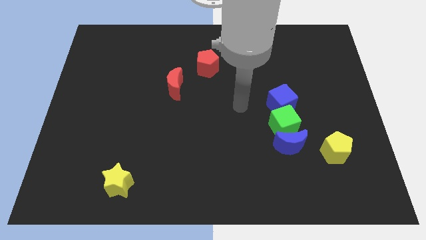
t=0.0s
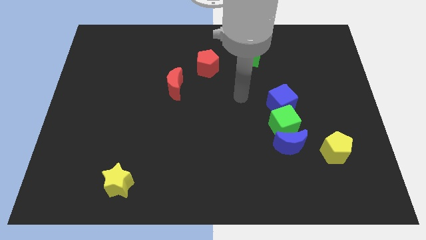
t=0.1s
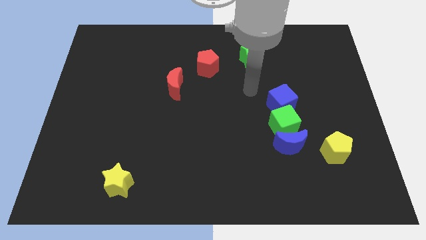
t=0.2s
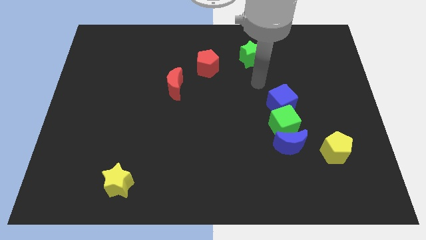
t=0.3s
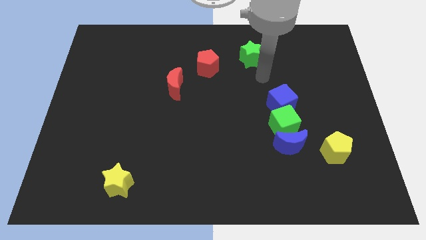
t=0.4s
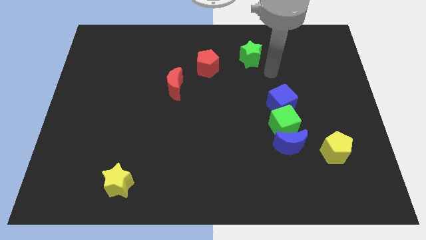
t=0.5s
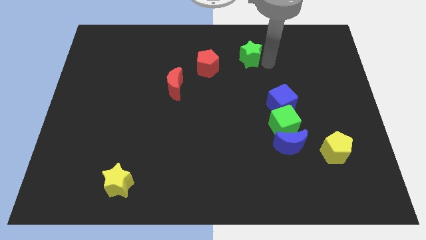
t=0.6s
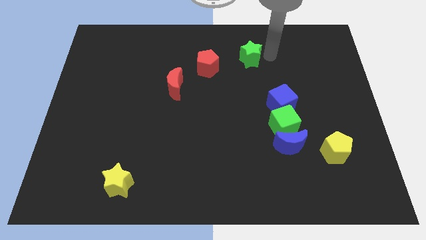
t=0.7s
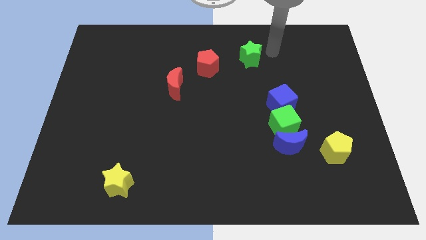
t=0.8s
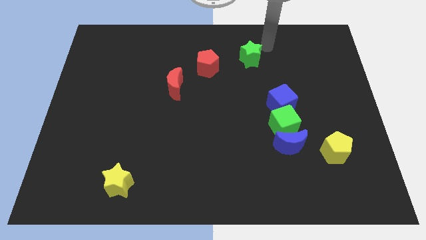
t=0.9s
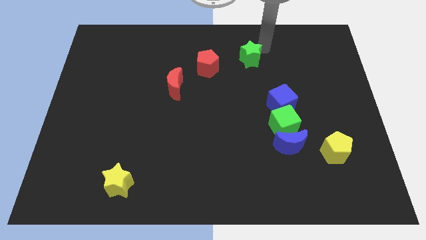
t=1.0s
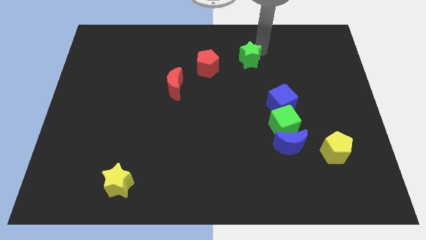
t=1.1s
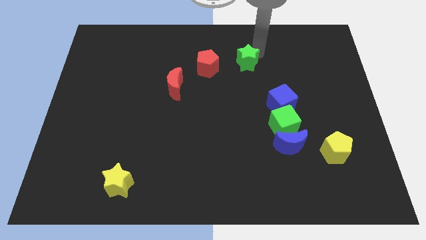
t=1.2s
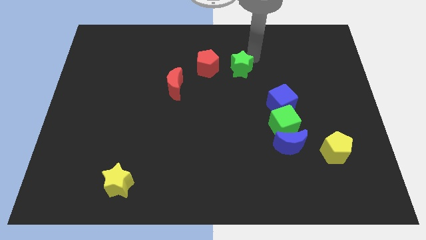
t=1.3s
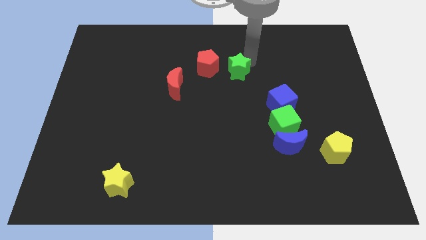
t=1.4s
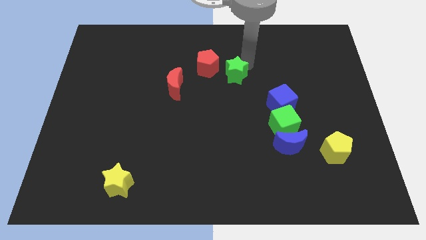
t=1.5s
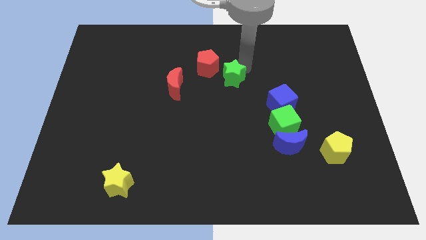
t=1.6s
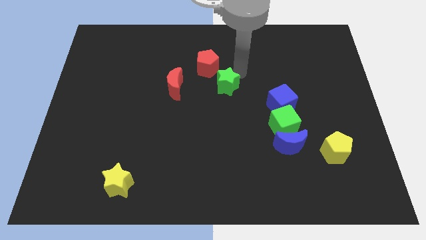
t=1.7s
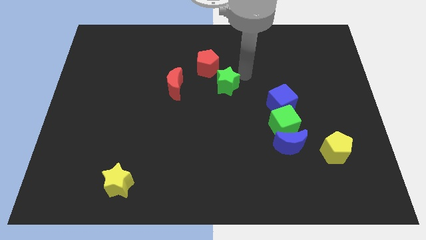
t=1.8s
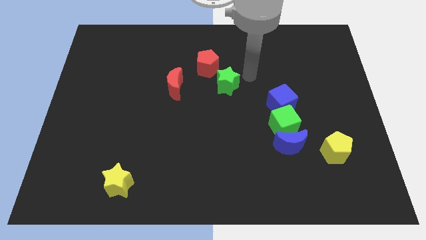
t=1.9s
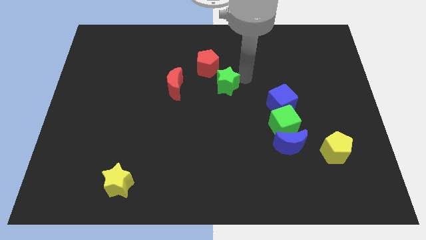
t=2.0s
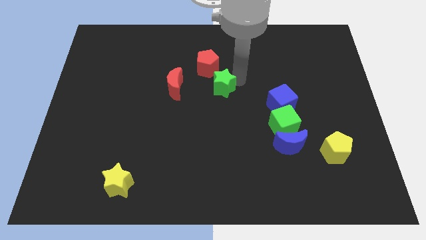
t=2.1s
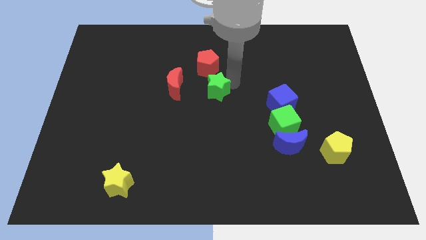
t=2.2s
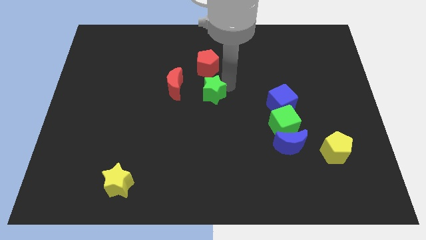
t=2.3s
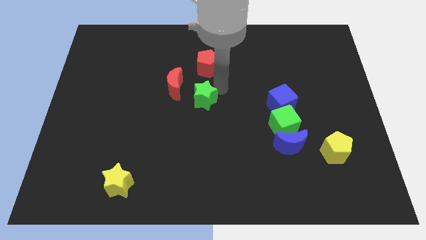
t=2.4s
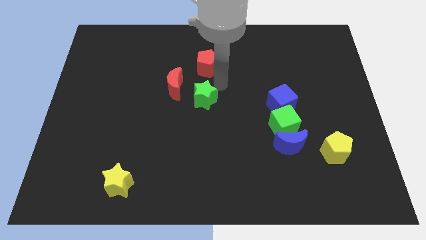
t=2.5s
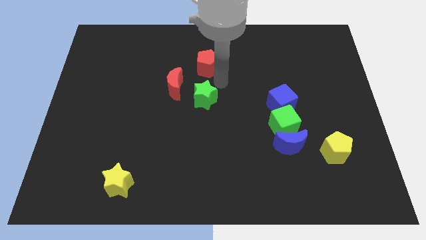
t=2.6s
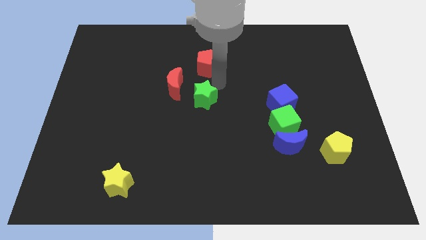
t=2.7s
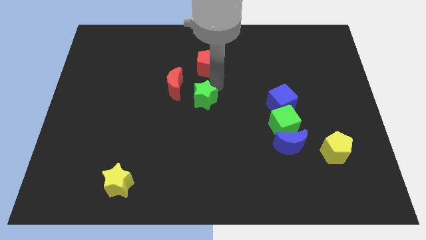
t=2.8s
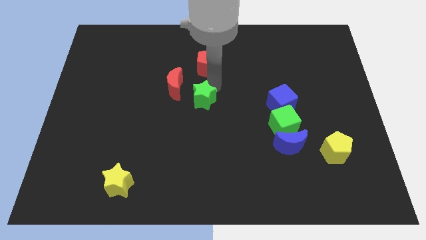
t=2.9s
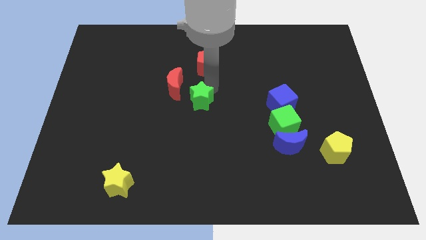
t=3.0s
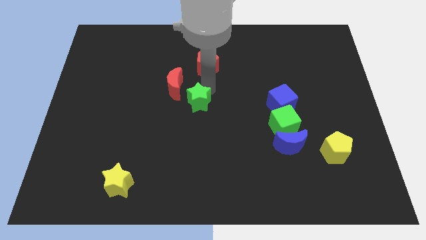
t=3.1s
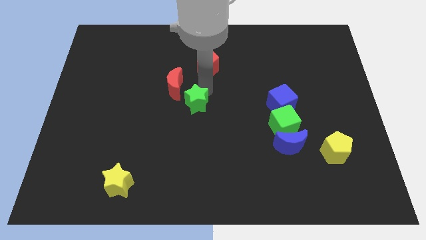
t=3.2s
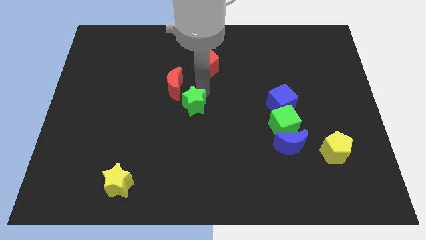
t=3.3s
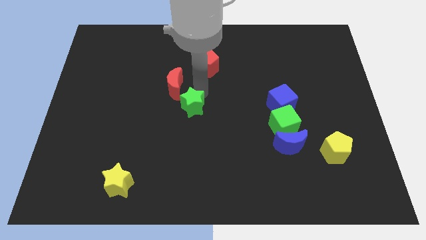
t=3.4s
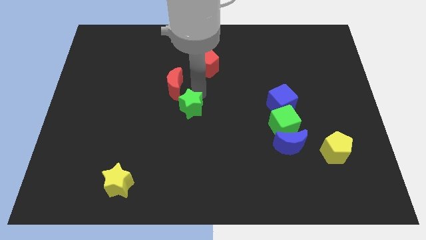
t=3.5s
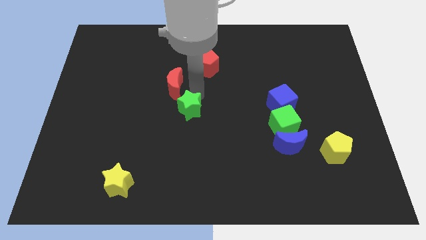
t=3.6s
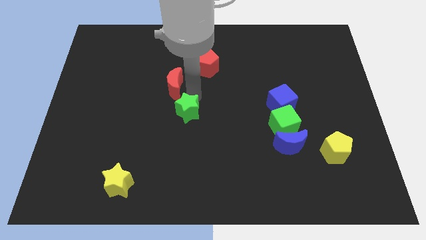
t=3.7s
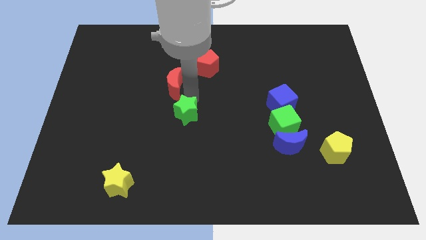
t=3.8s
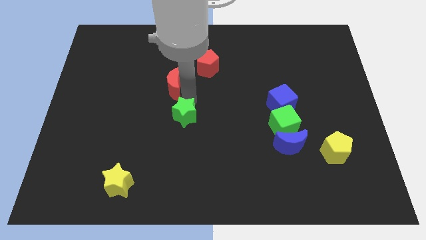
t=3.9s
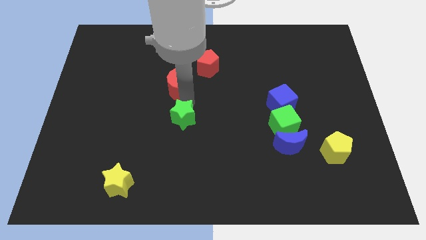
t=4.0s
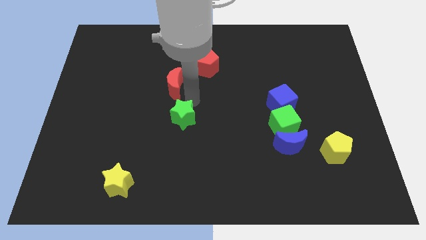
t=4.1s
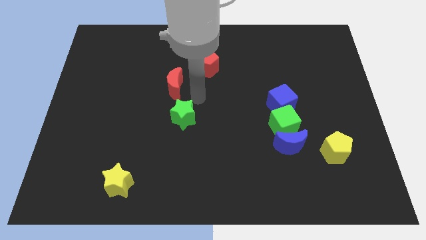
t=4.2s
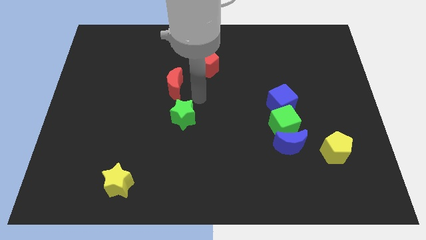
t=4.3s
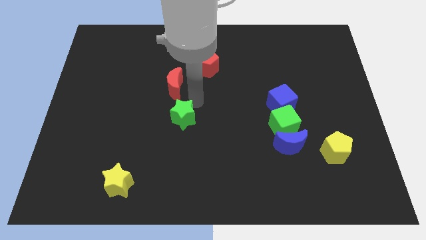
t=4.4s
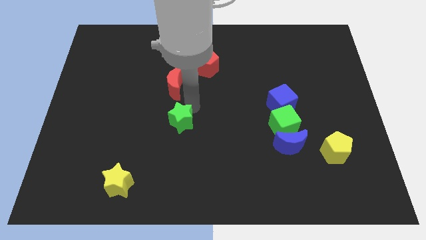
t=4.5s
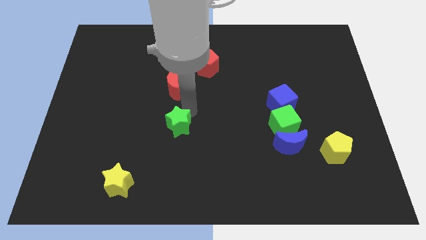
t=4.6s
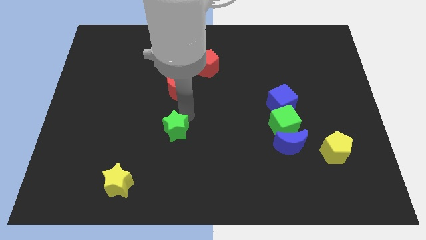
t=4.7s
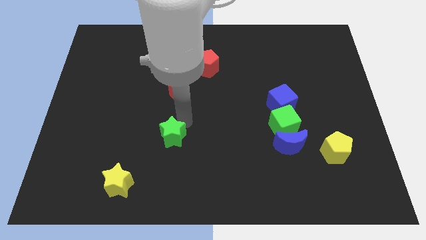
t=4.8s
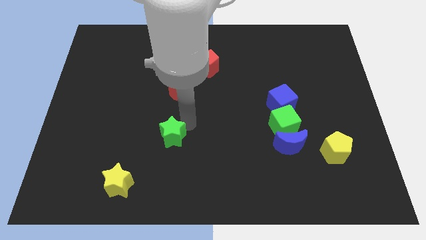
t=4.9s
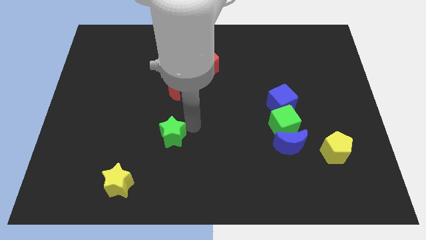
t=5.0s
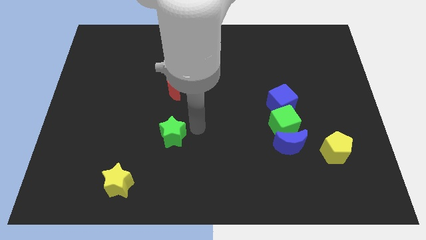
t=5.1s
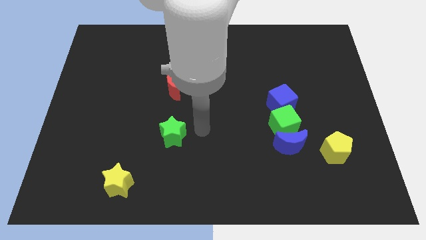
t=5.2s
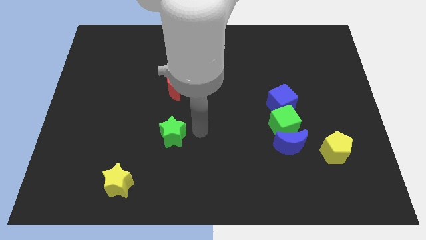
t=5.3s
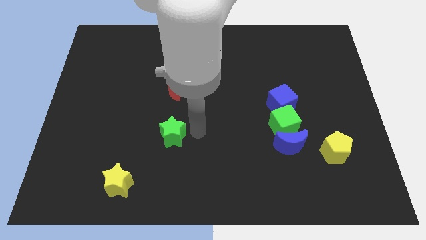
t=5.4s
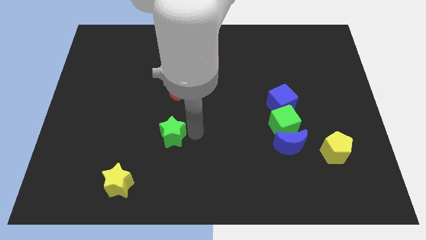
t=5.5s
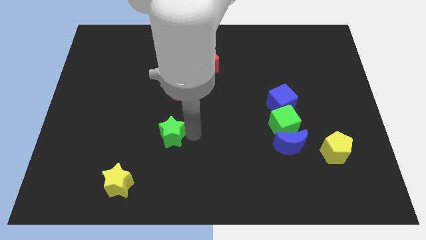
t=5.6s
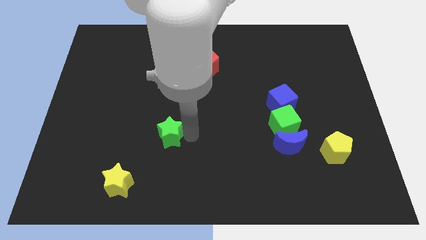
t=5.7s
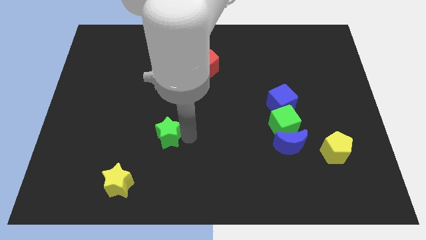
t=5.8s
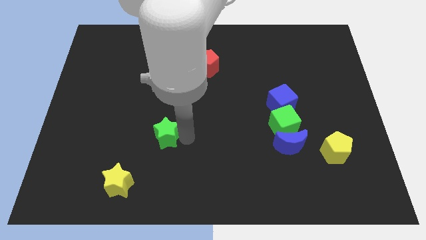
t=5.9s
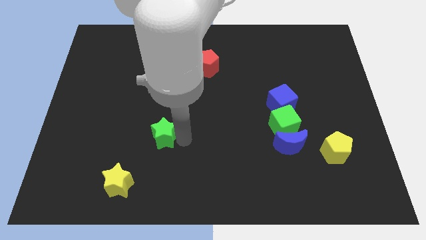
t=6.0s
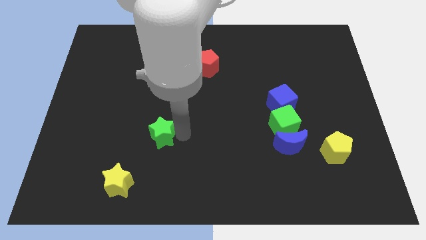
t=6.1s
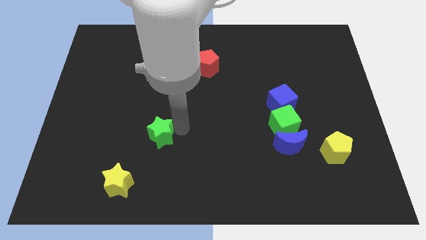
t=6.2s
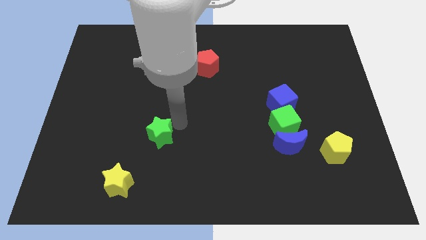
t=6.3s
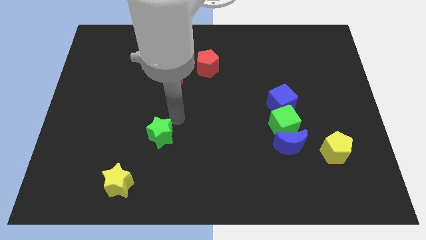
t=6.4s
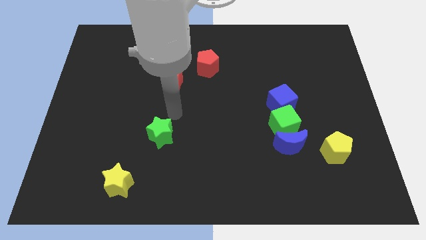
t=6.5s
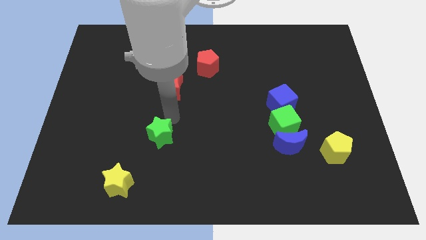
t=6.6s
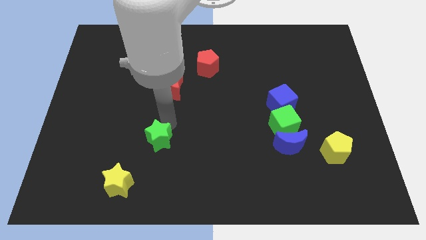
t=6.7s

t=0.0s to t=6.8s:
put the green star to the top right side of the yellow star

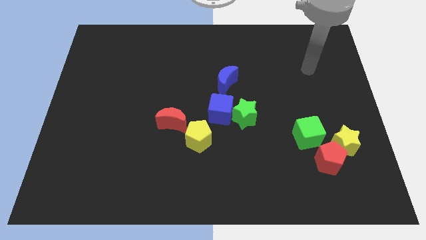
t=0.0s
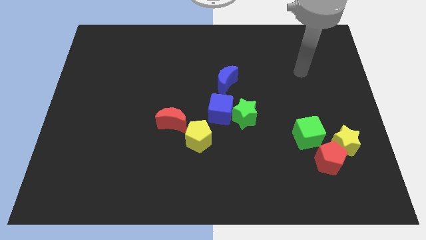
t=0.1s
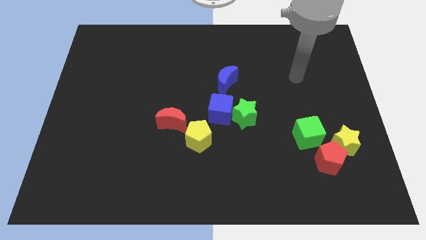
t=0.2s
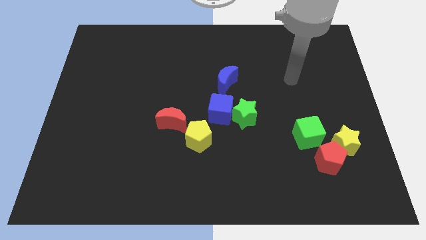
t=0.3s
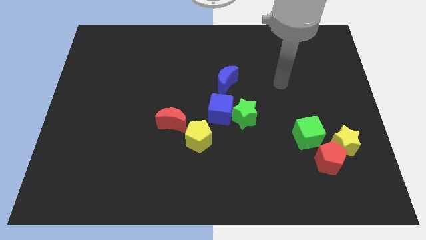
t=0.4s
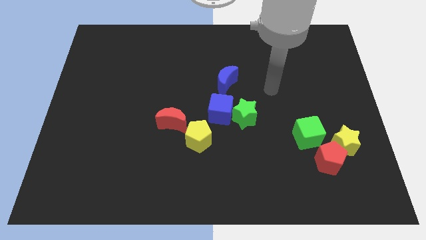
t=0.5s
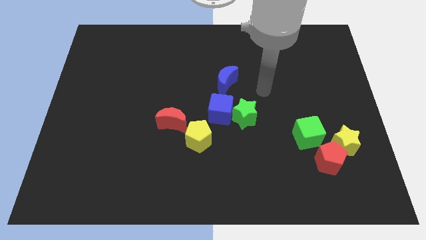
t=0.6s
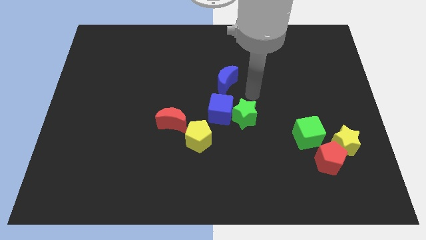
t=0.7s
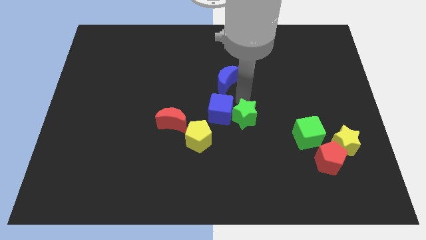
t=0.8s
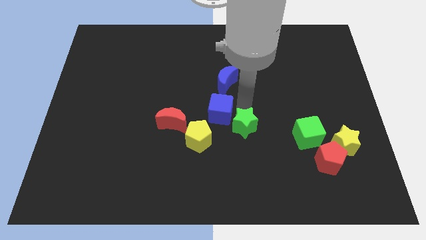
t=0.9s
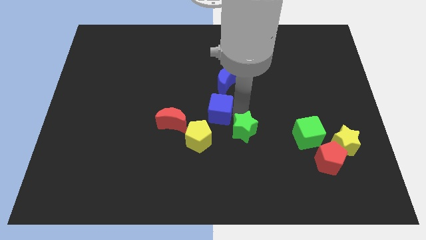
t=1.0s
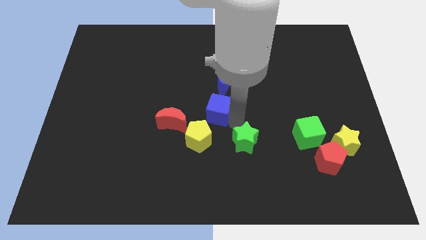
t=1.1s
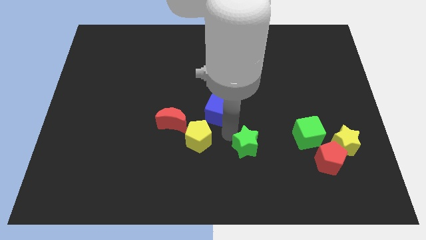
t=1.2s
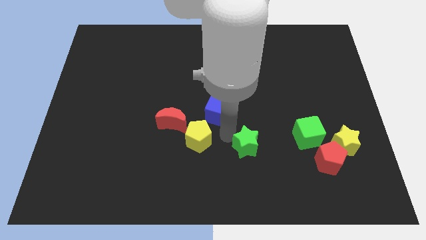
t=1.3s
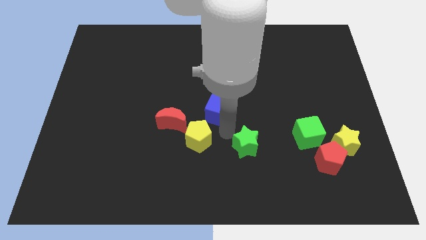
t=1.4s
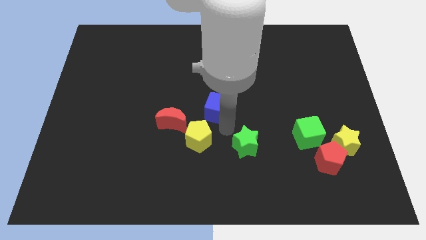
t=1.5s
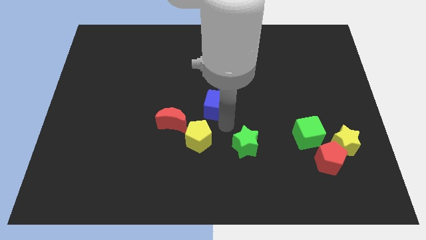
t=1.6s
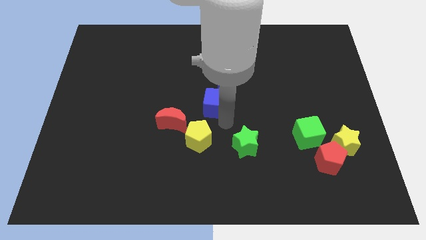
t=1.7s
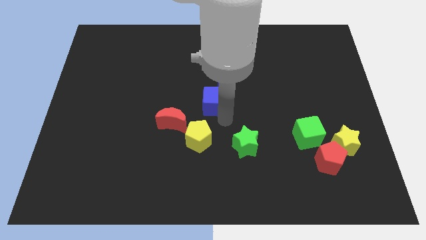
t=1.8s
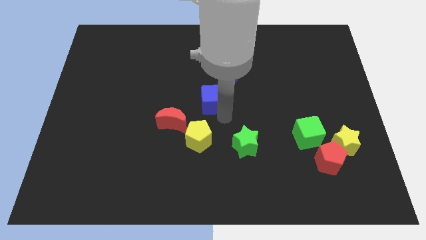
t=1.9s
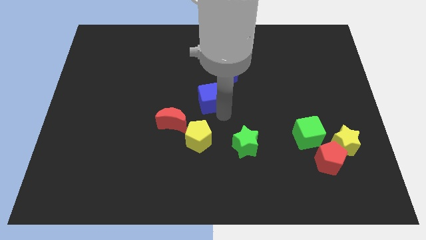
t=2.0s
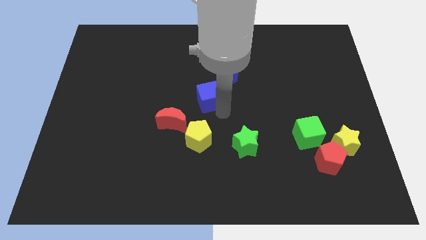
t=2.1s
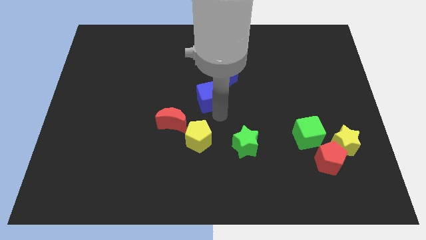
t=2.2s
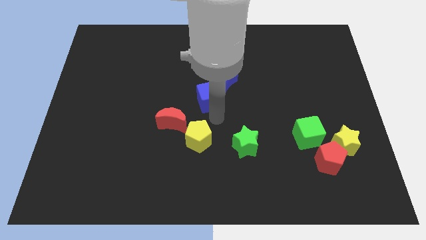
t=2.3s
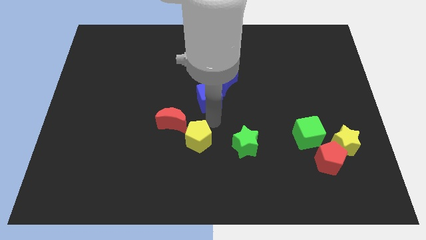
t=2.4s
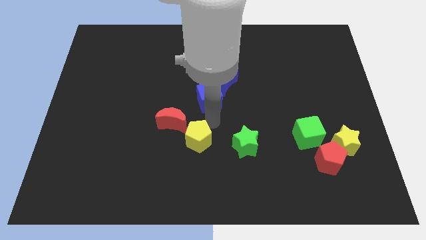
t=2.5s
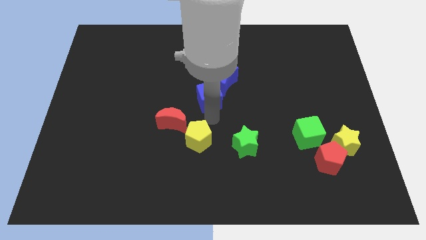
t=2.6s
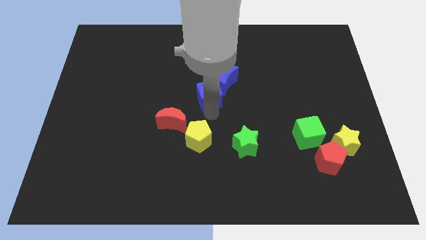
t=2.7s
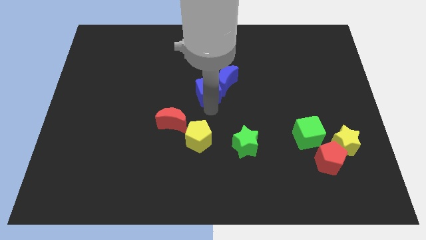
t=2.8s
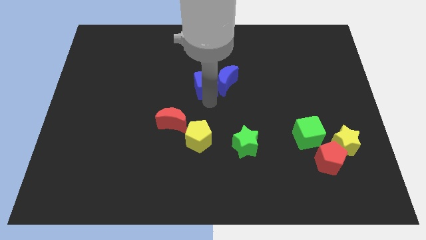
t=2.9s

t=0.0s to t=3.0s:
slide the blue cube to the top left side of the blue moon
